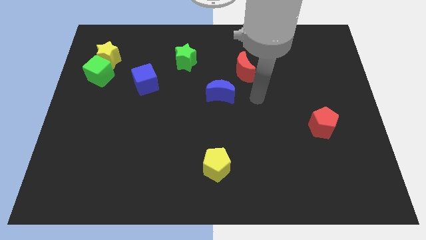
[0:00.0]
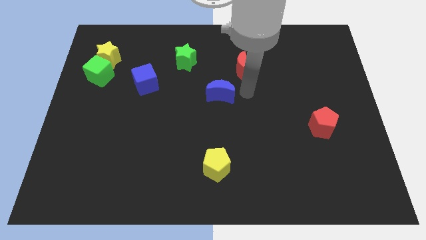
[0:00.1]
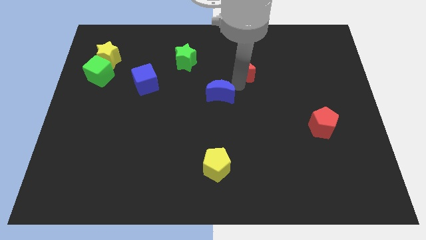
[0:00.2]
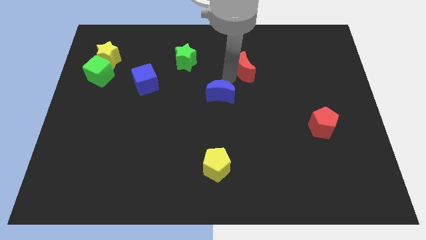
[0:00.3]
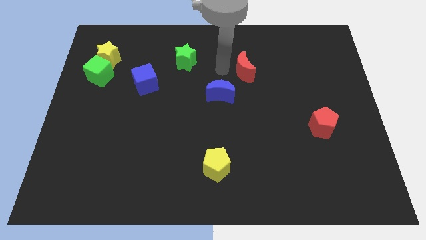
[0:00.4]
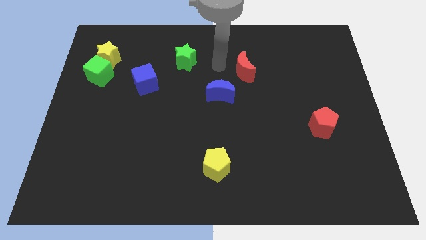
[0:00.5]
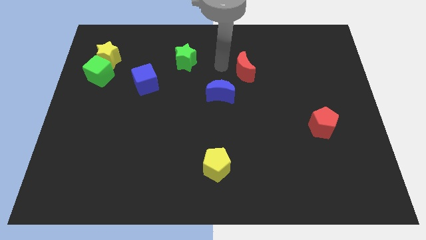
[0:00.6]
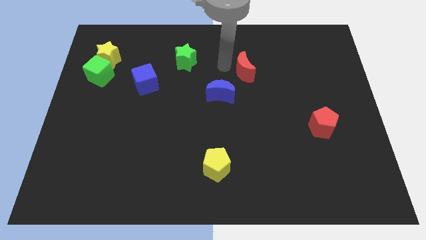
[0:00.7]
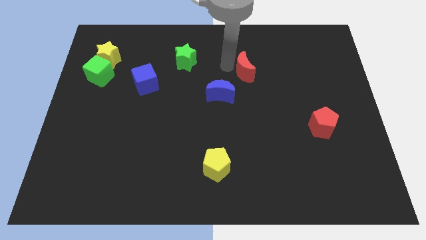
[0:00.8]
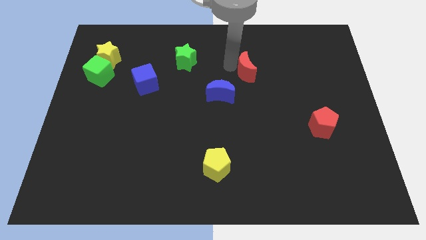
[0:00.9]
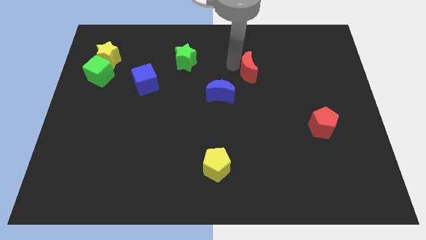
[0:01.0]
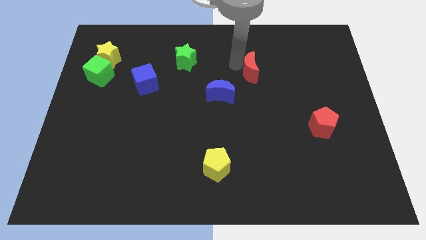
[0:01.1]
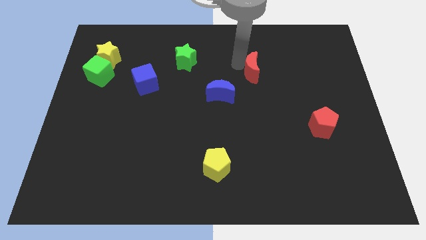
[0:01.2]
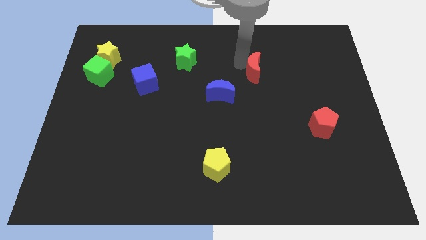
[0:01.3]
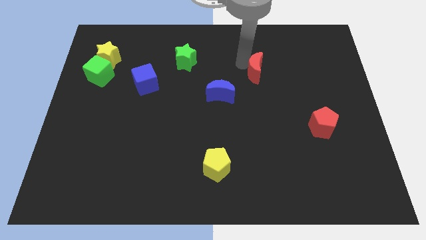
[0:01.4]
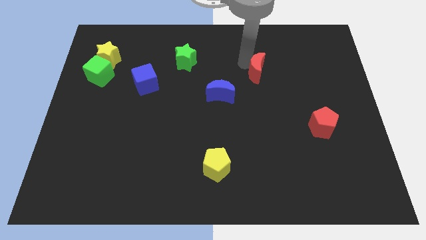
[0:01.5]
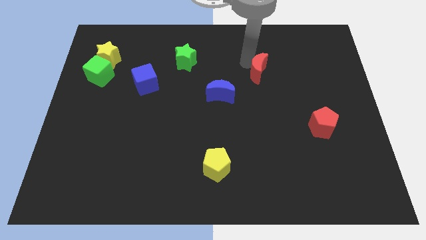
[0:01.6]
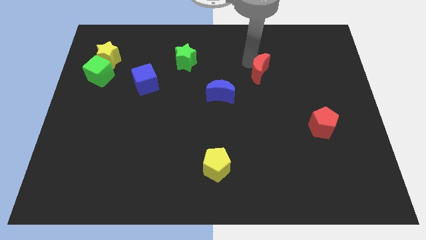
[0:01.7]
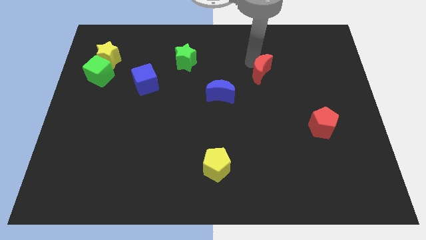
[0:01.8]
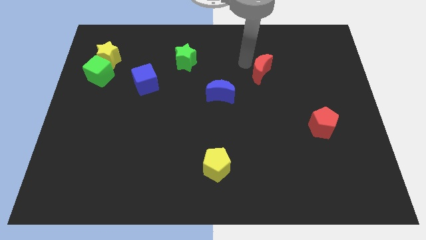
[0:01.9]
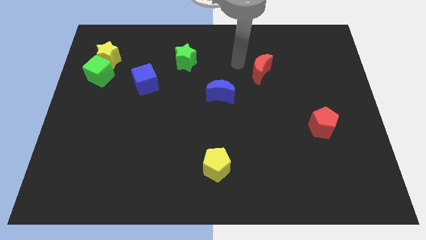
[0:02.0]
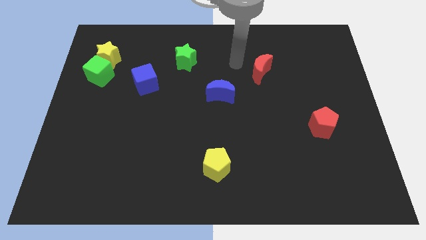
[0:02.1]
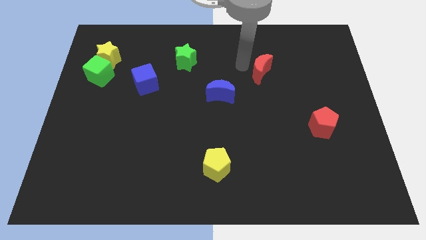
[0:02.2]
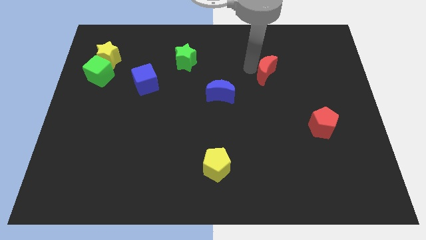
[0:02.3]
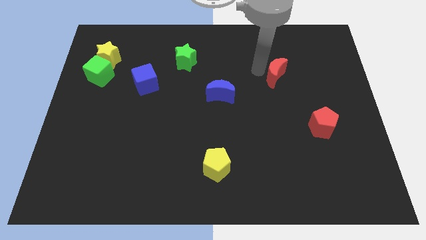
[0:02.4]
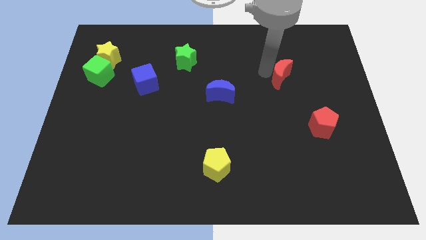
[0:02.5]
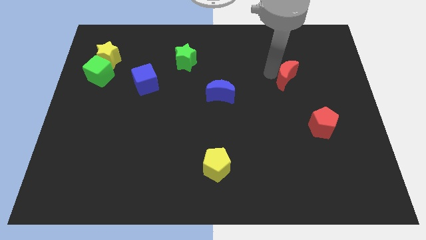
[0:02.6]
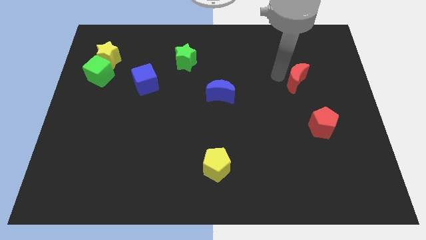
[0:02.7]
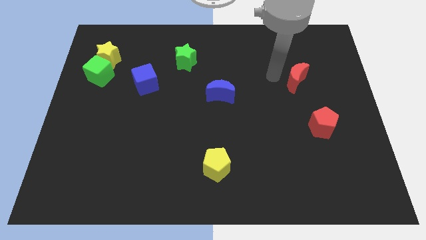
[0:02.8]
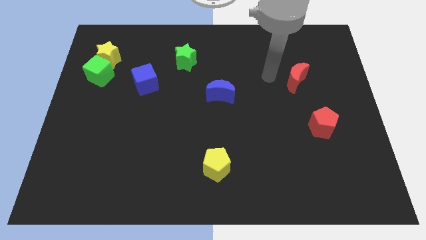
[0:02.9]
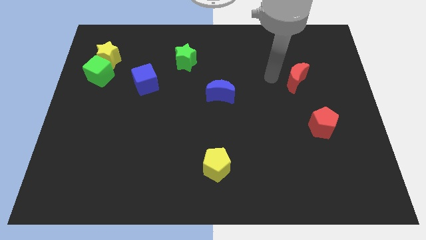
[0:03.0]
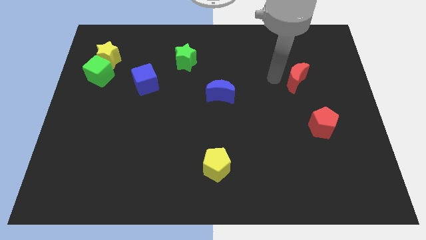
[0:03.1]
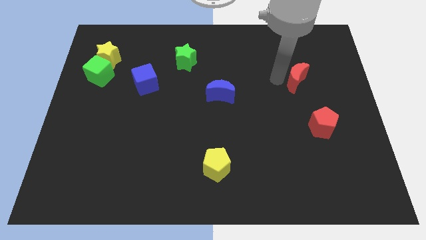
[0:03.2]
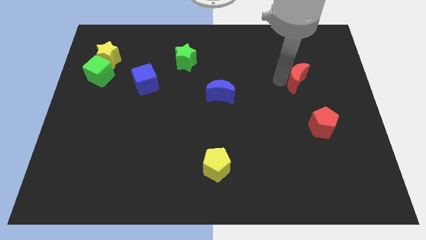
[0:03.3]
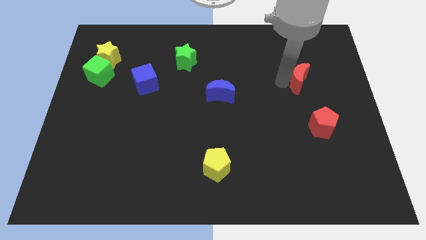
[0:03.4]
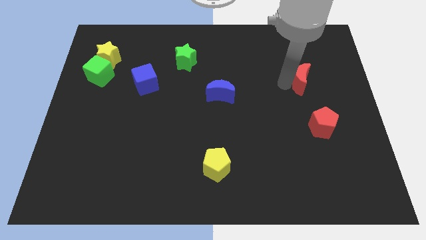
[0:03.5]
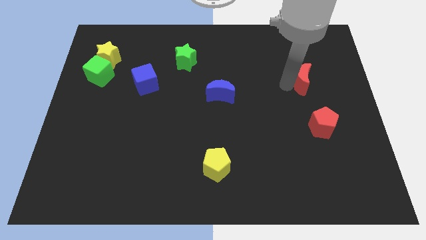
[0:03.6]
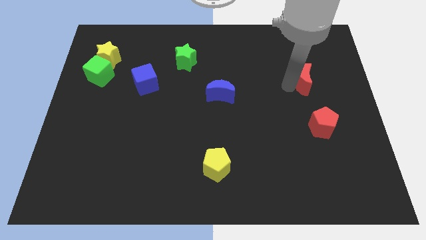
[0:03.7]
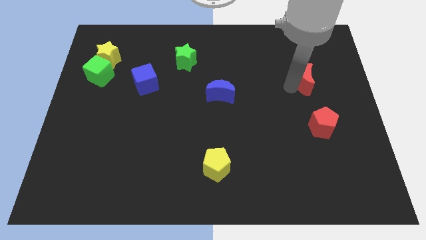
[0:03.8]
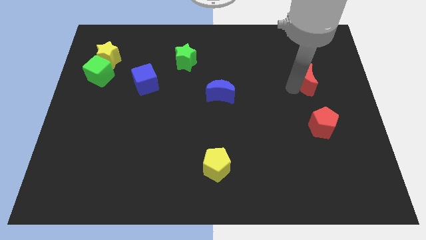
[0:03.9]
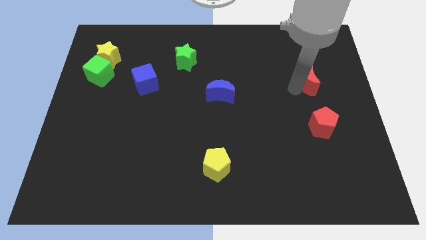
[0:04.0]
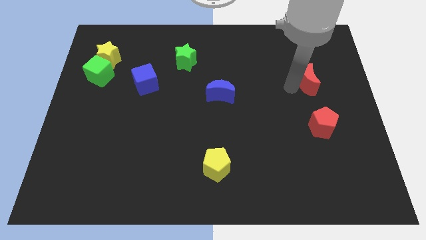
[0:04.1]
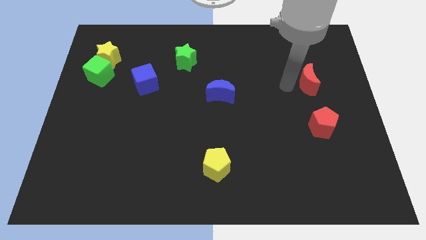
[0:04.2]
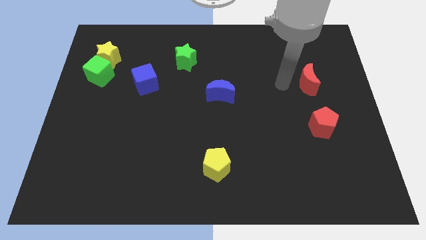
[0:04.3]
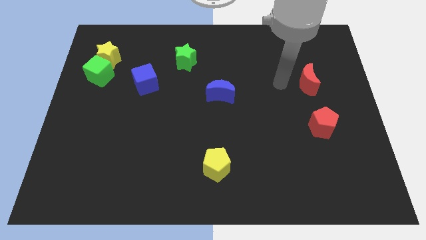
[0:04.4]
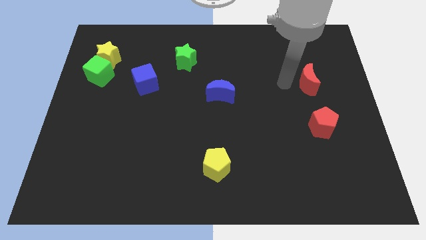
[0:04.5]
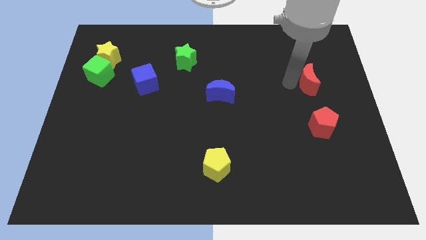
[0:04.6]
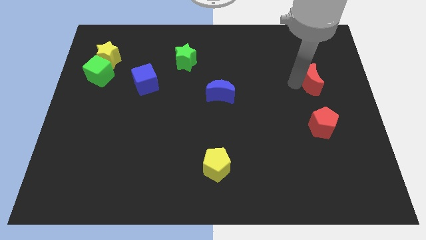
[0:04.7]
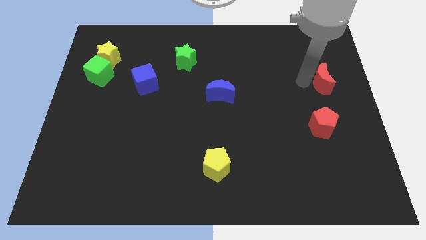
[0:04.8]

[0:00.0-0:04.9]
slide the red moon to the center right

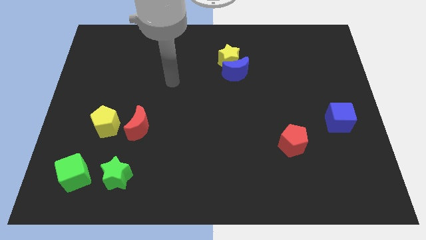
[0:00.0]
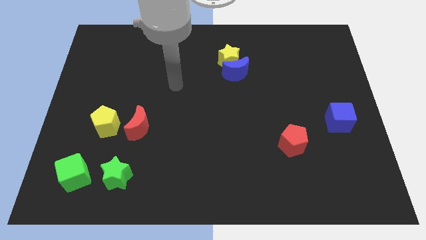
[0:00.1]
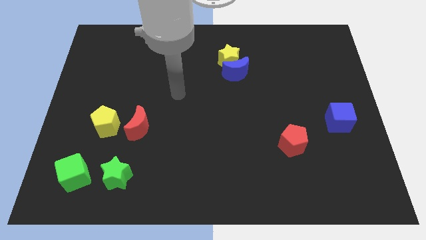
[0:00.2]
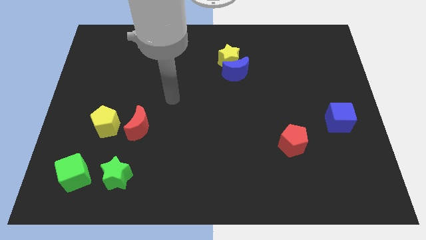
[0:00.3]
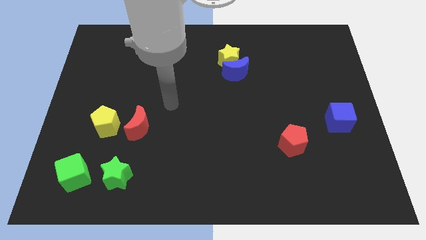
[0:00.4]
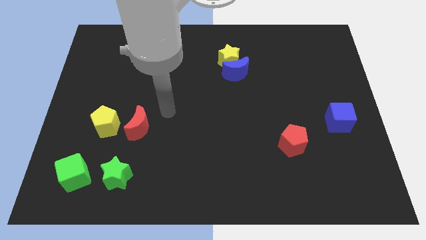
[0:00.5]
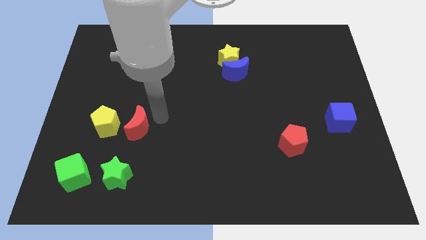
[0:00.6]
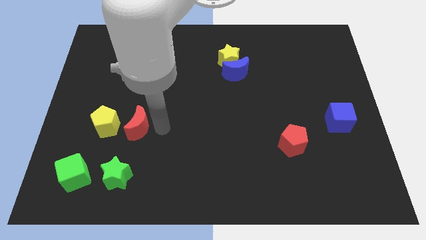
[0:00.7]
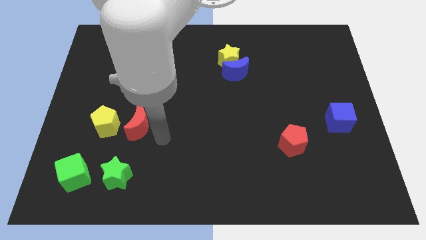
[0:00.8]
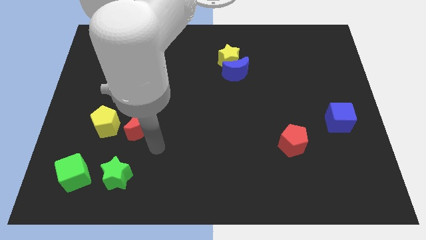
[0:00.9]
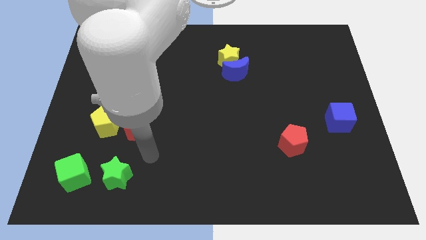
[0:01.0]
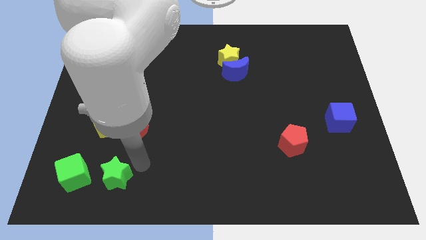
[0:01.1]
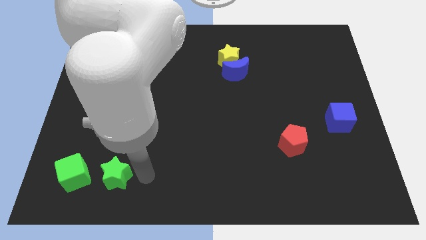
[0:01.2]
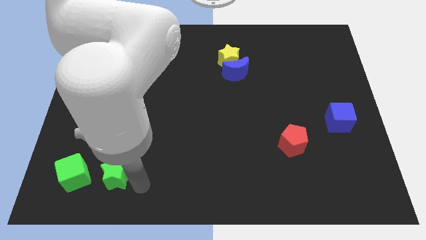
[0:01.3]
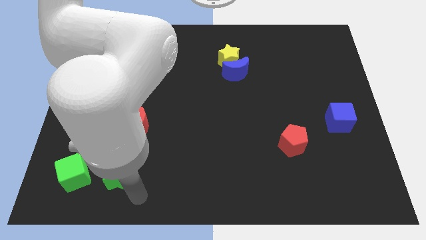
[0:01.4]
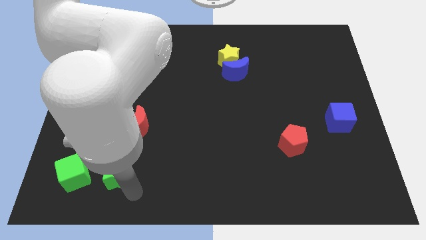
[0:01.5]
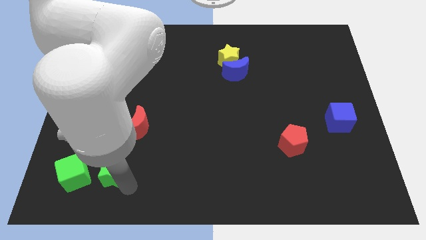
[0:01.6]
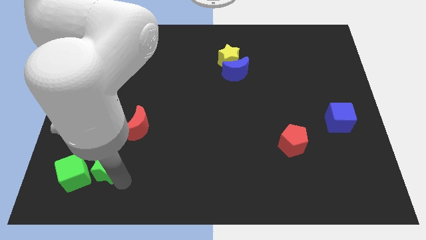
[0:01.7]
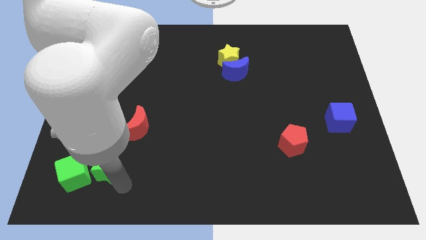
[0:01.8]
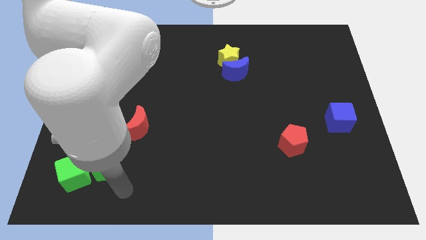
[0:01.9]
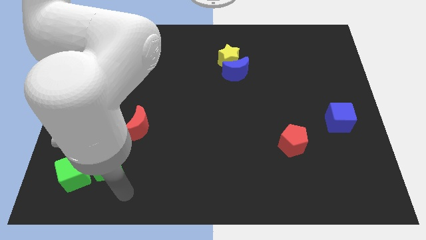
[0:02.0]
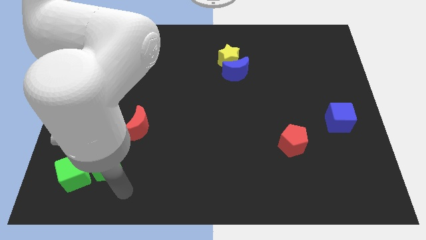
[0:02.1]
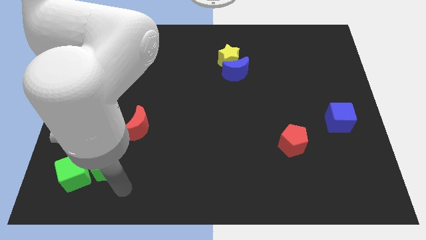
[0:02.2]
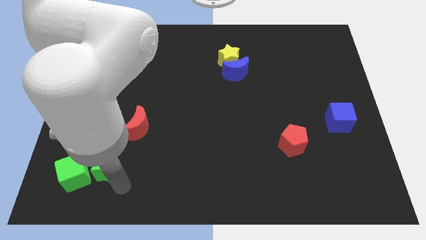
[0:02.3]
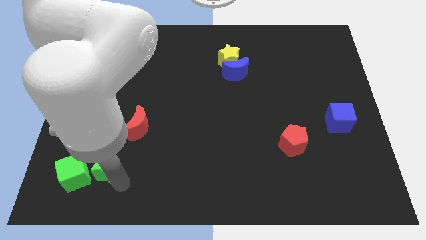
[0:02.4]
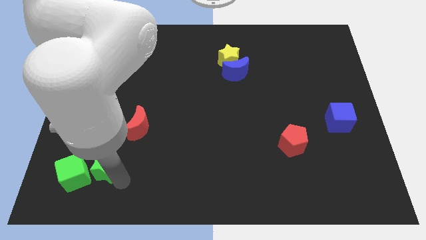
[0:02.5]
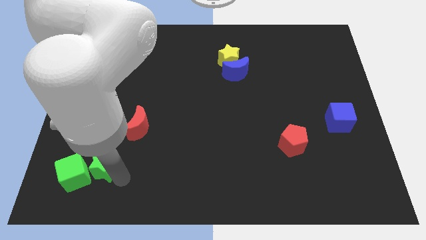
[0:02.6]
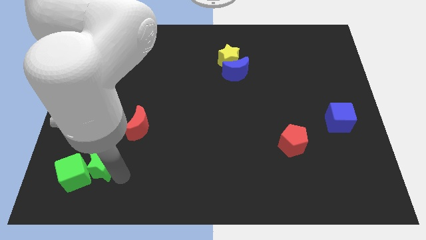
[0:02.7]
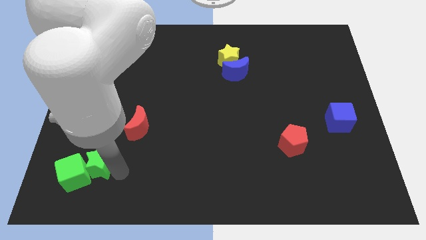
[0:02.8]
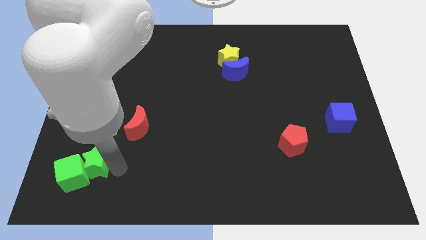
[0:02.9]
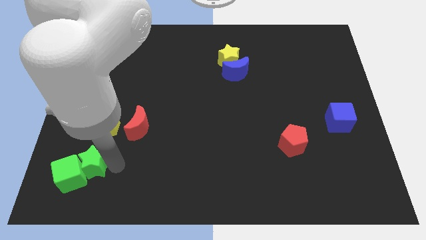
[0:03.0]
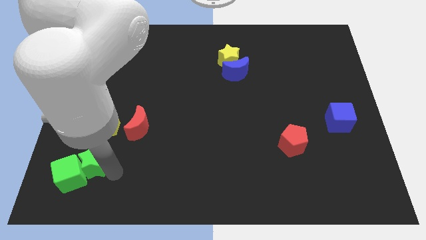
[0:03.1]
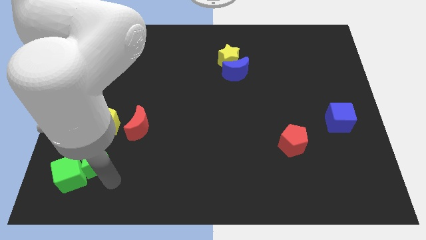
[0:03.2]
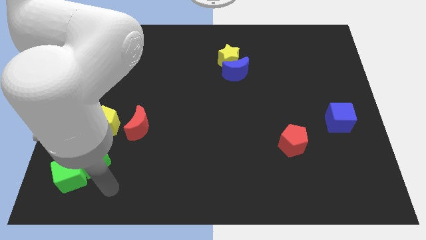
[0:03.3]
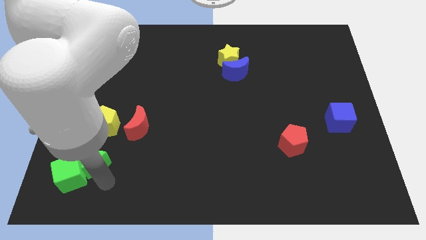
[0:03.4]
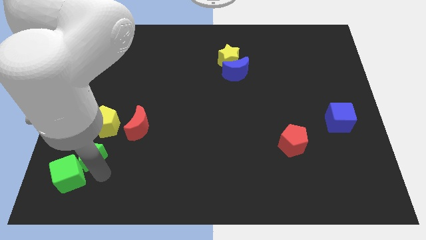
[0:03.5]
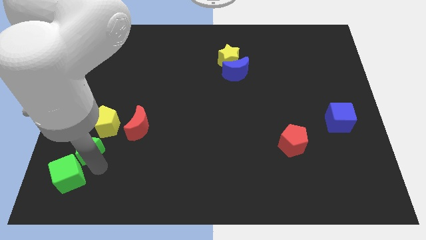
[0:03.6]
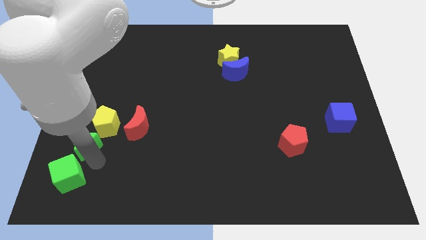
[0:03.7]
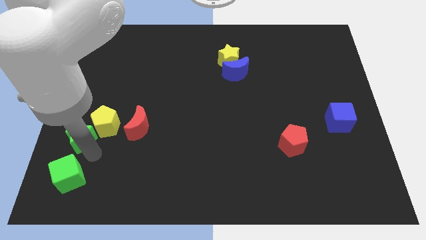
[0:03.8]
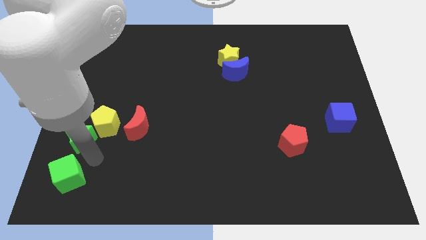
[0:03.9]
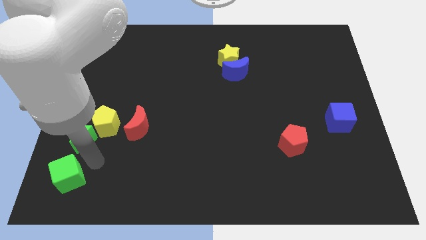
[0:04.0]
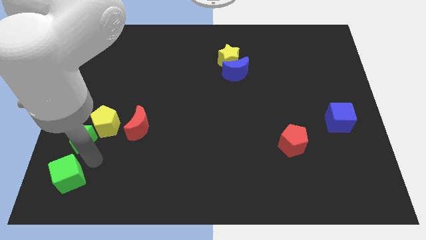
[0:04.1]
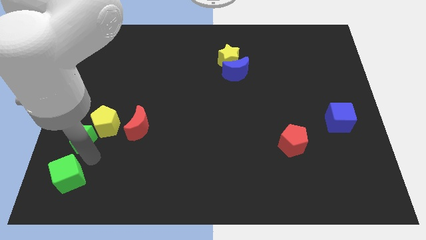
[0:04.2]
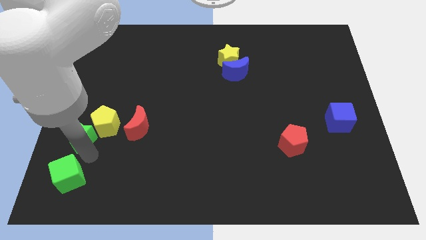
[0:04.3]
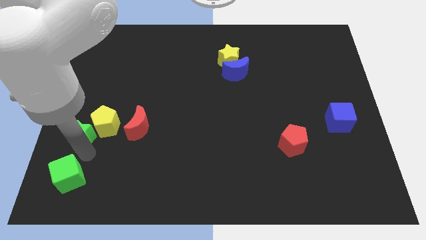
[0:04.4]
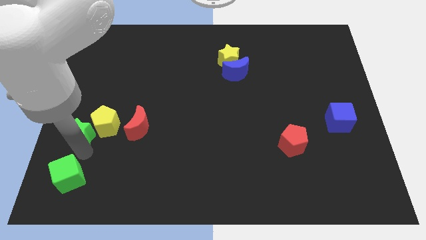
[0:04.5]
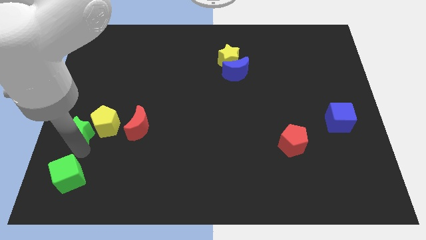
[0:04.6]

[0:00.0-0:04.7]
move the green star to the left side of the board
